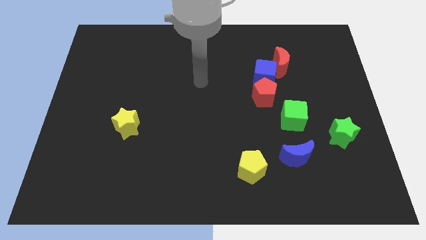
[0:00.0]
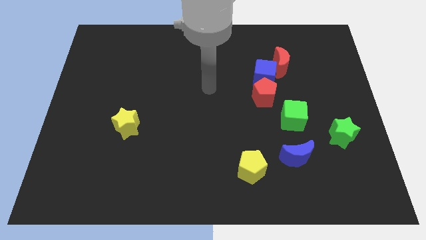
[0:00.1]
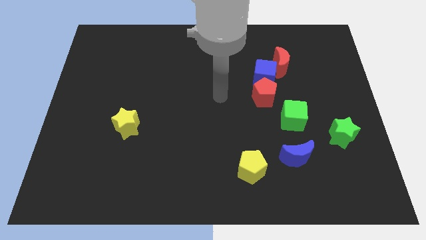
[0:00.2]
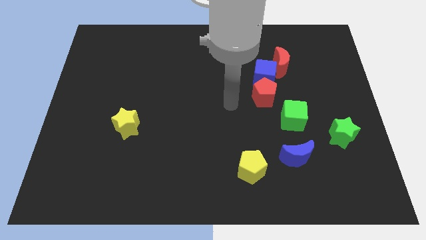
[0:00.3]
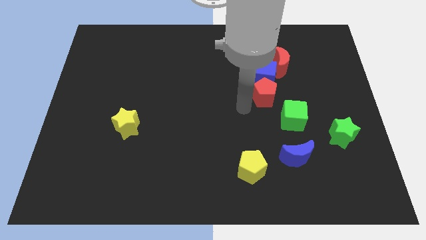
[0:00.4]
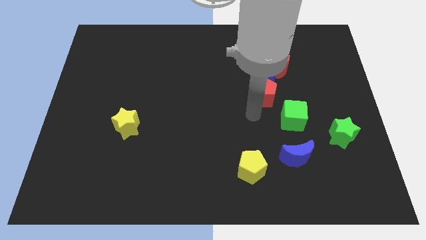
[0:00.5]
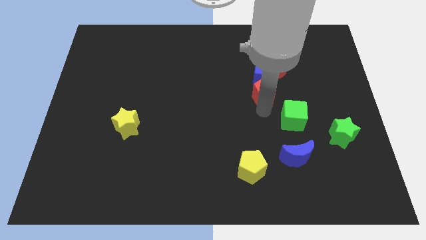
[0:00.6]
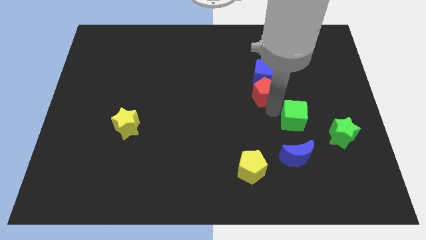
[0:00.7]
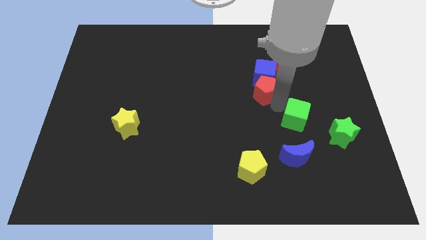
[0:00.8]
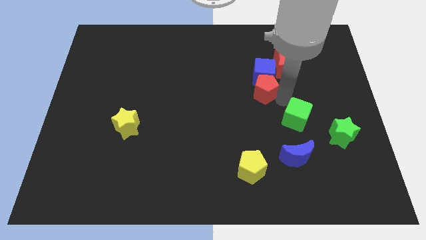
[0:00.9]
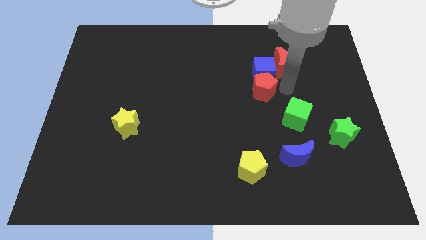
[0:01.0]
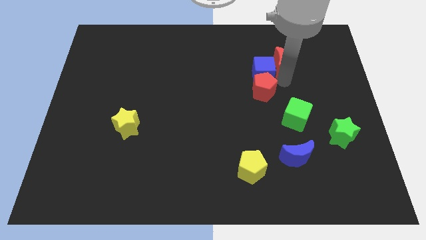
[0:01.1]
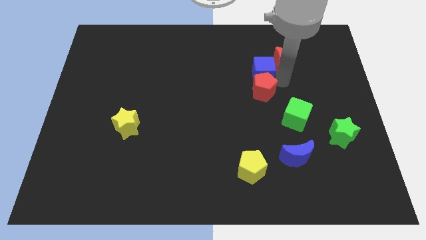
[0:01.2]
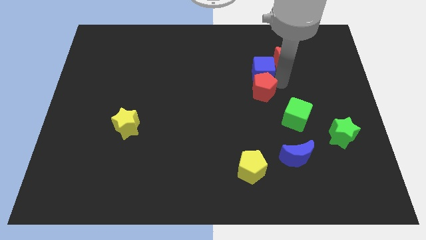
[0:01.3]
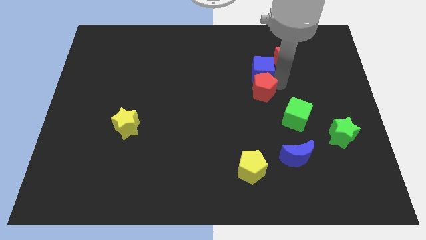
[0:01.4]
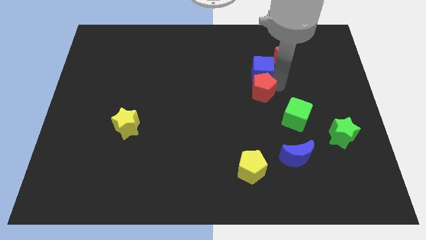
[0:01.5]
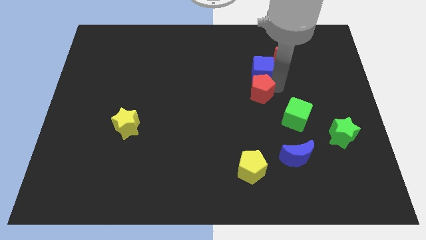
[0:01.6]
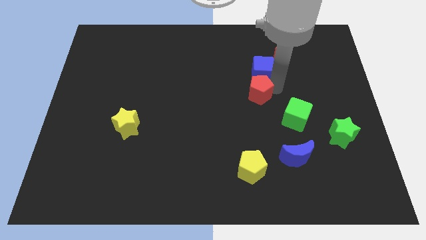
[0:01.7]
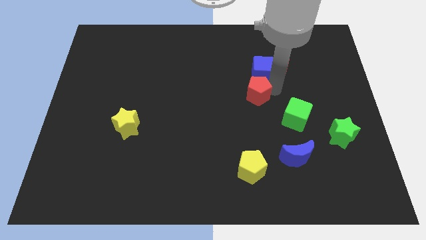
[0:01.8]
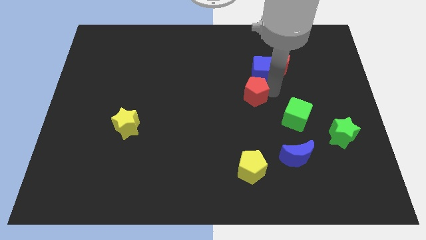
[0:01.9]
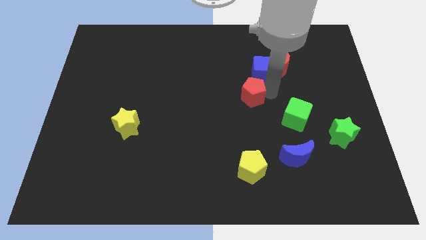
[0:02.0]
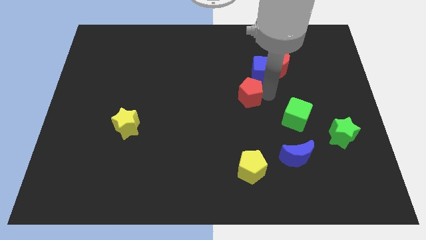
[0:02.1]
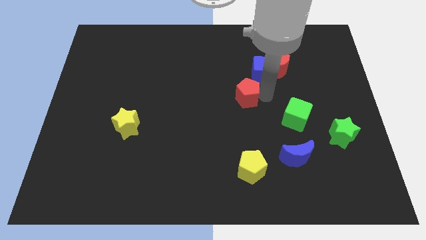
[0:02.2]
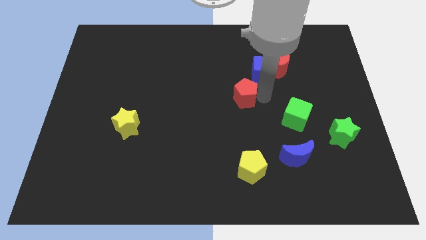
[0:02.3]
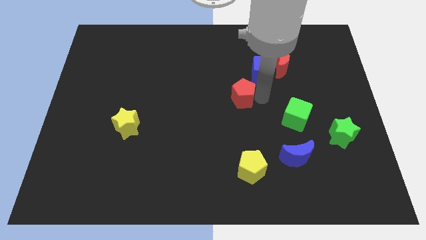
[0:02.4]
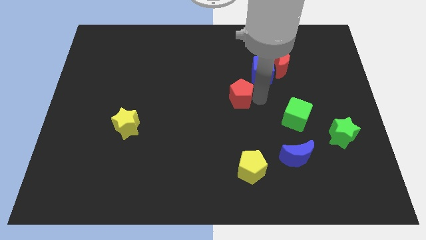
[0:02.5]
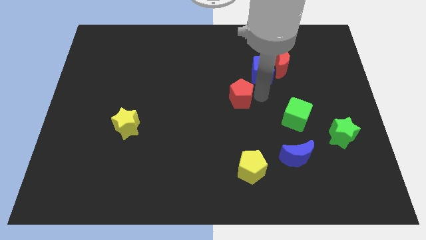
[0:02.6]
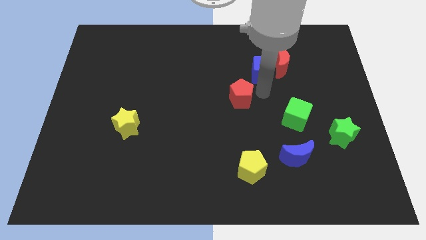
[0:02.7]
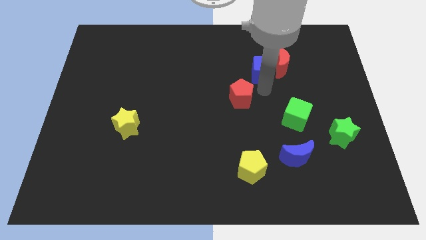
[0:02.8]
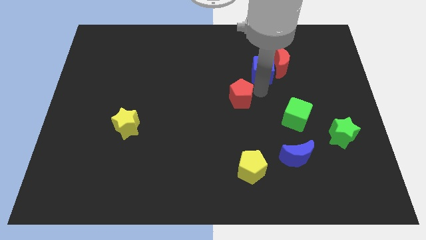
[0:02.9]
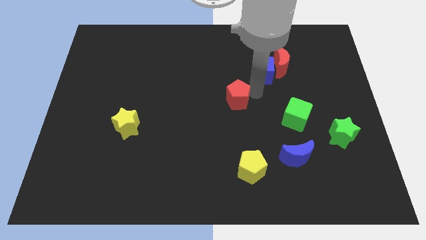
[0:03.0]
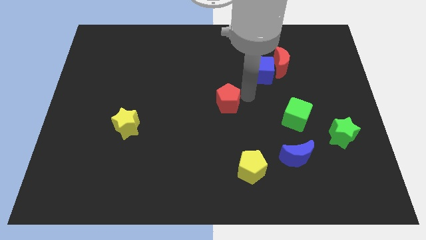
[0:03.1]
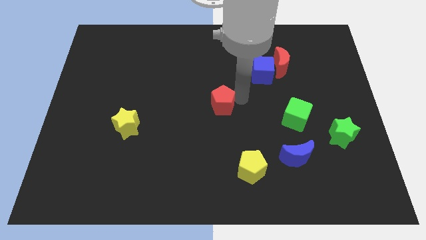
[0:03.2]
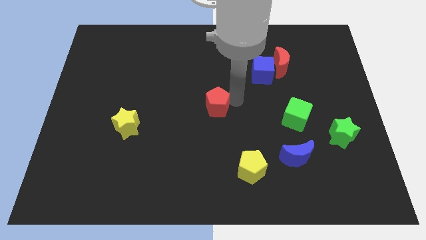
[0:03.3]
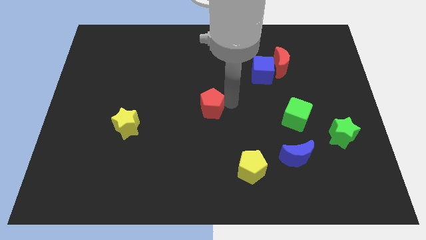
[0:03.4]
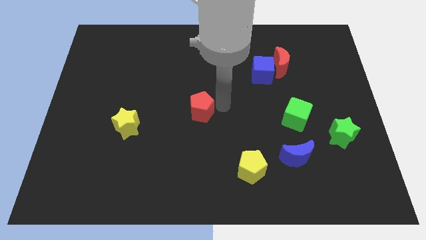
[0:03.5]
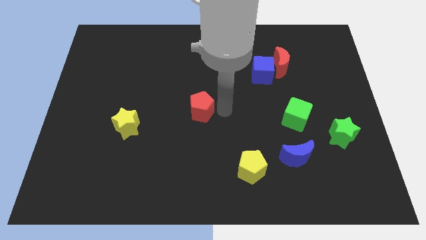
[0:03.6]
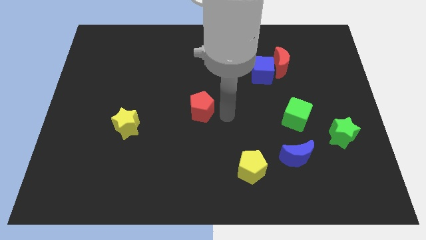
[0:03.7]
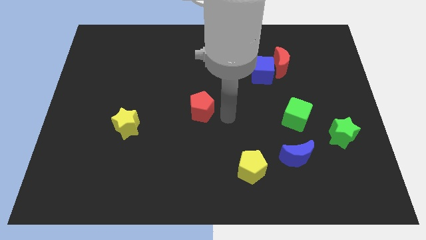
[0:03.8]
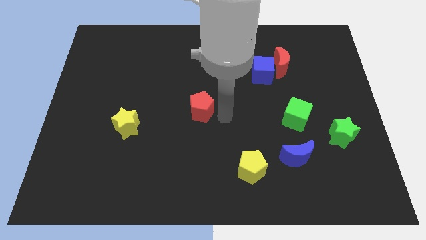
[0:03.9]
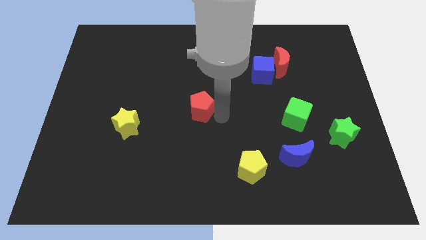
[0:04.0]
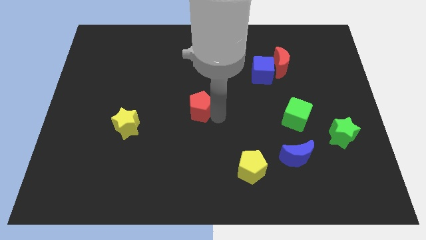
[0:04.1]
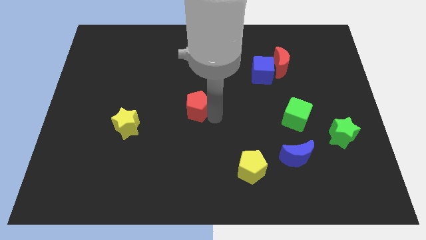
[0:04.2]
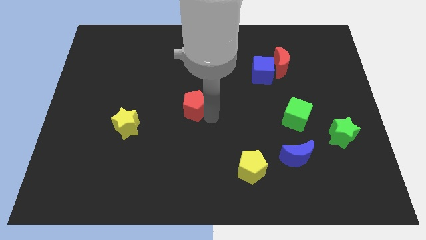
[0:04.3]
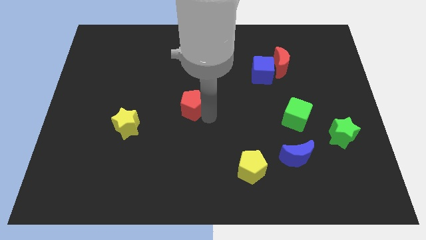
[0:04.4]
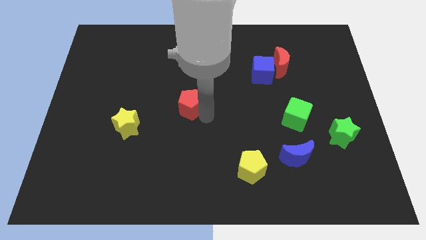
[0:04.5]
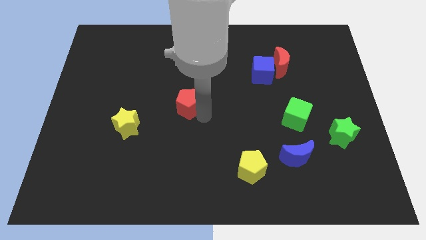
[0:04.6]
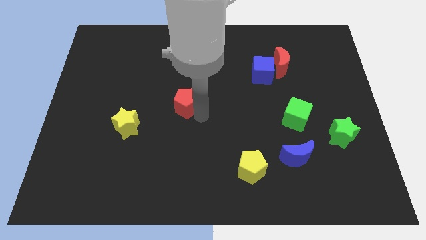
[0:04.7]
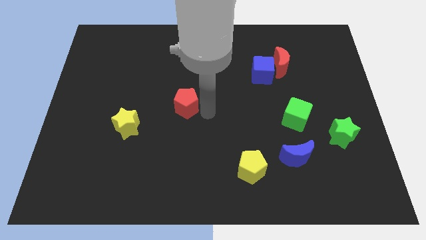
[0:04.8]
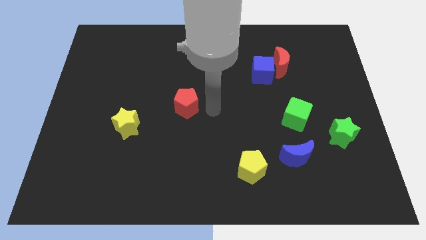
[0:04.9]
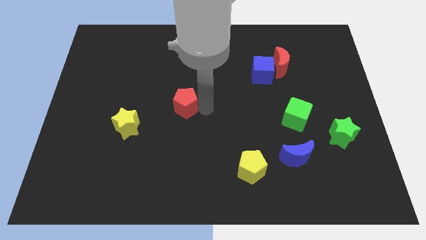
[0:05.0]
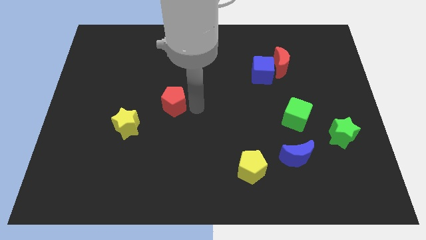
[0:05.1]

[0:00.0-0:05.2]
move the red pentagon left

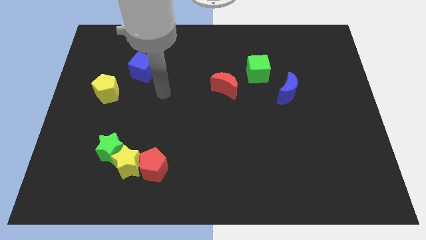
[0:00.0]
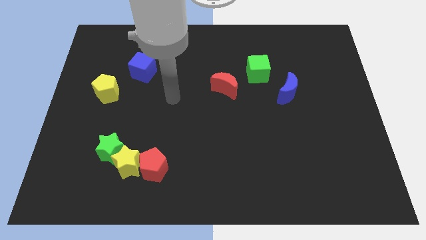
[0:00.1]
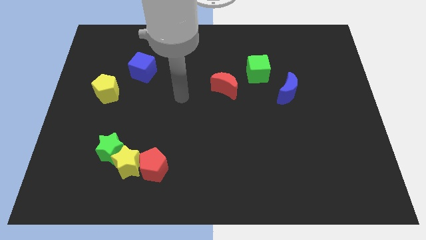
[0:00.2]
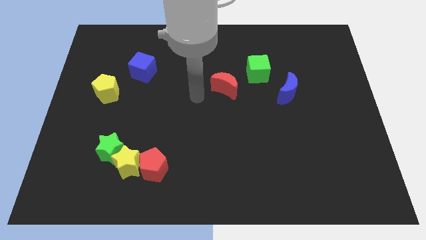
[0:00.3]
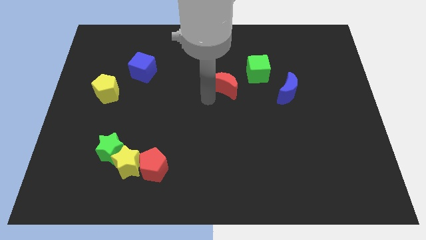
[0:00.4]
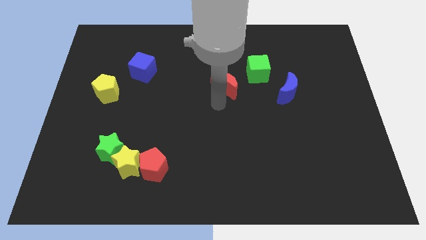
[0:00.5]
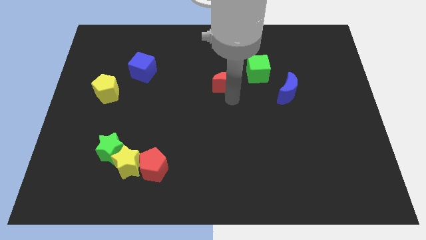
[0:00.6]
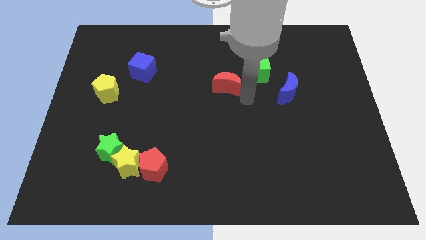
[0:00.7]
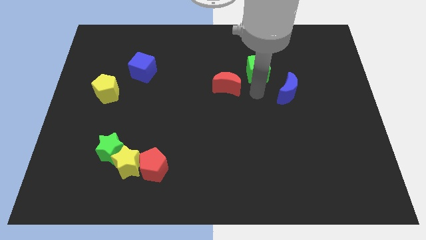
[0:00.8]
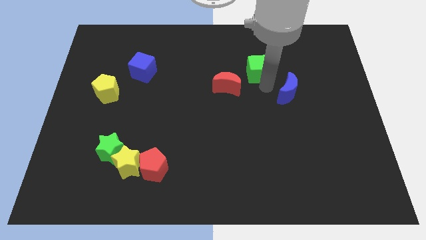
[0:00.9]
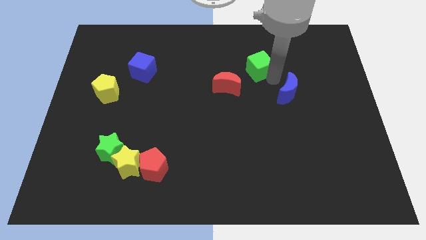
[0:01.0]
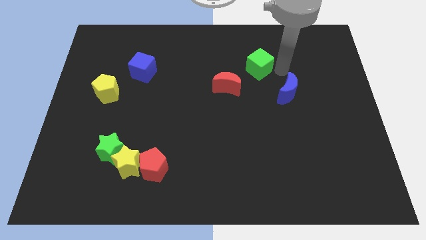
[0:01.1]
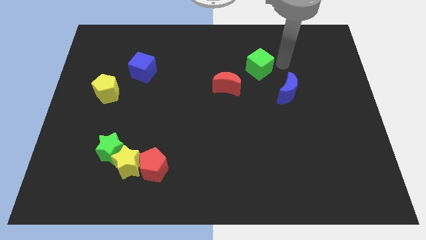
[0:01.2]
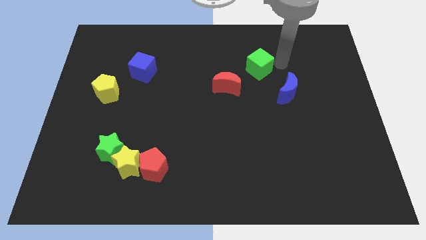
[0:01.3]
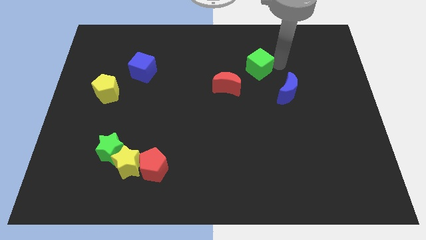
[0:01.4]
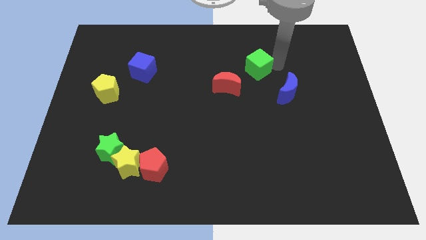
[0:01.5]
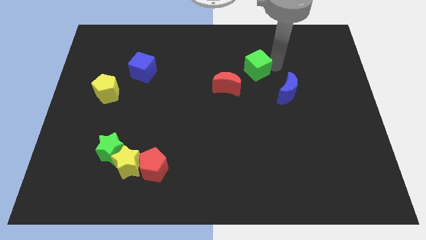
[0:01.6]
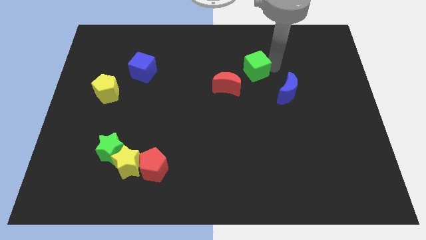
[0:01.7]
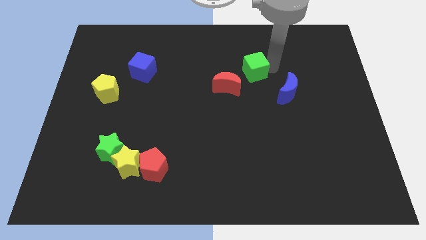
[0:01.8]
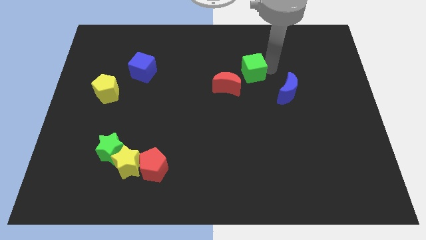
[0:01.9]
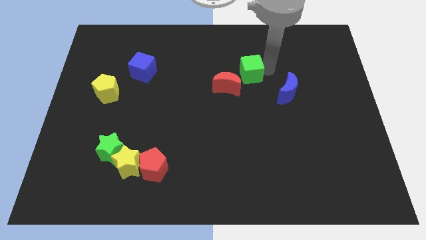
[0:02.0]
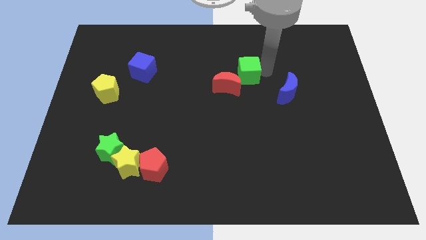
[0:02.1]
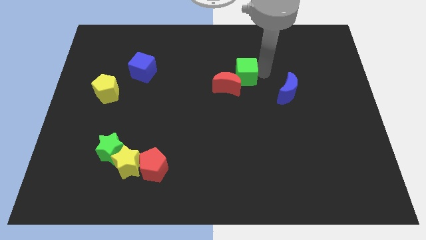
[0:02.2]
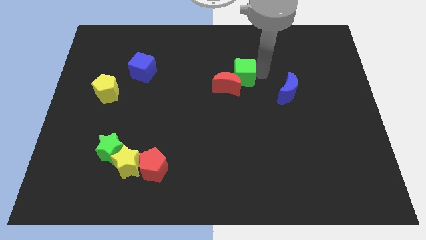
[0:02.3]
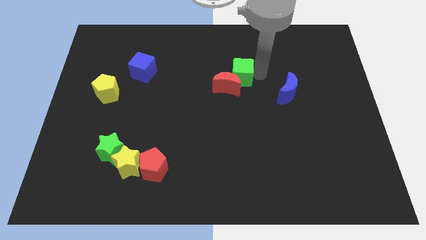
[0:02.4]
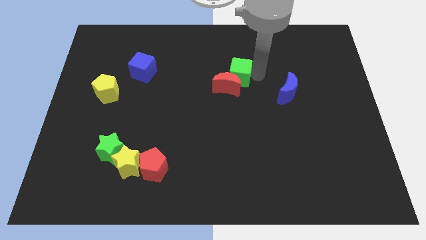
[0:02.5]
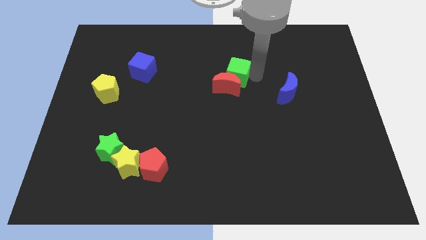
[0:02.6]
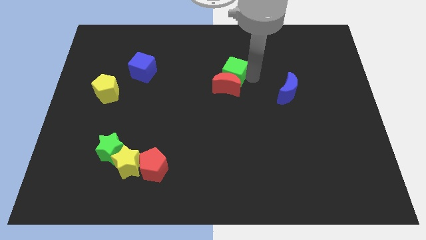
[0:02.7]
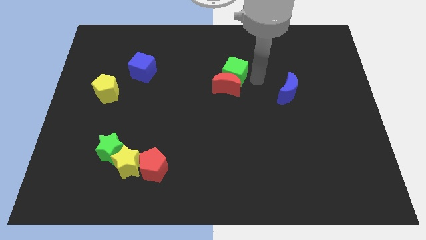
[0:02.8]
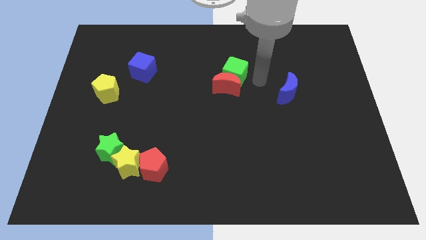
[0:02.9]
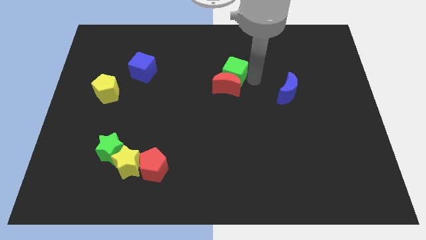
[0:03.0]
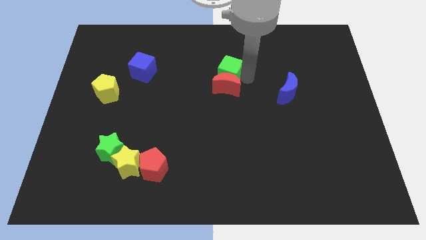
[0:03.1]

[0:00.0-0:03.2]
slightly slide the green cube to the left
